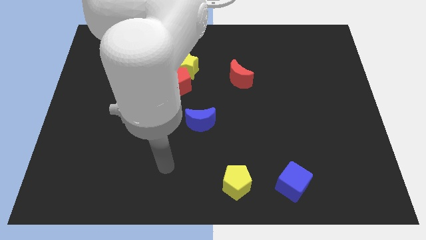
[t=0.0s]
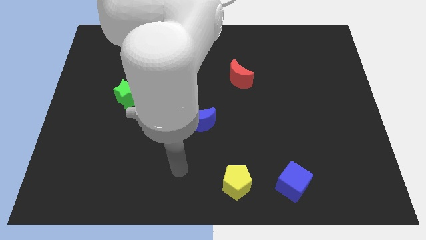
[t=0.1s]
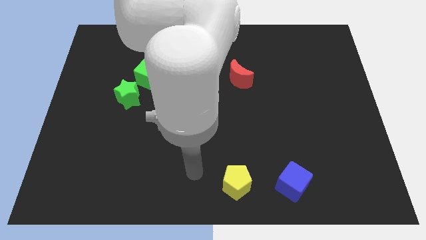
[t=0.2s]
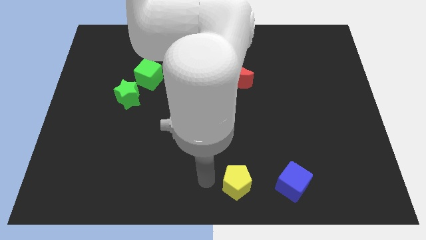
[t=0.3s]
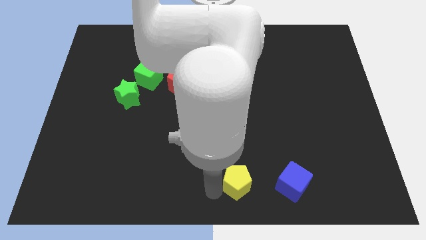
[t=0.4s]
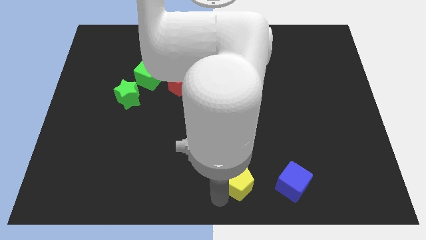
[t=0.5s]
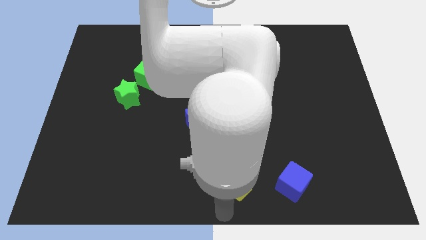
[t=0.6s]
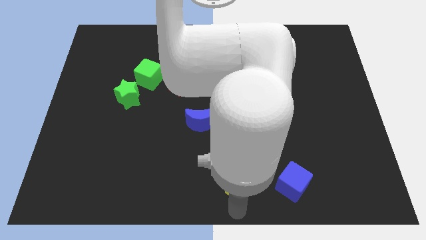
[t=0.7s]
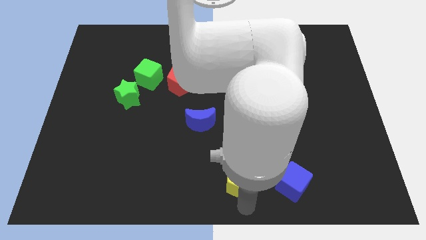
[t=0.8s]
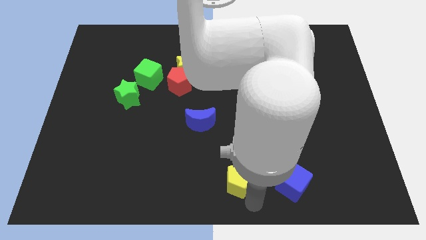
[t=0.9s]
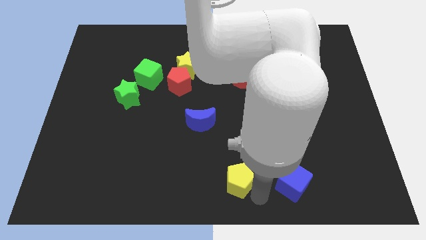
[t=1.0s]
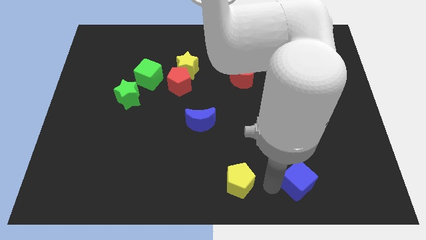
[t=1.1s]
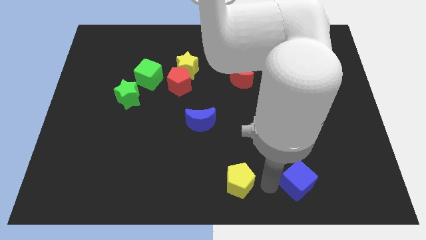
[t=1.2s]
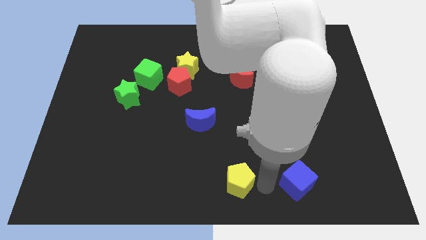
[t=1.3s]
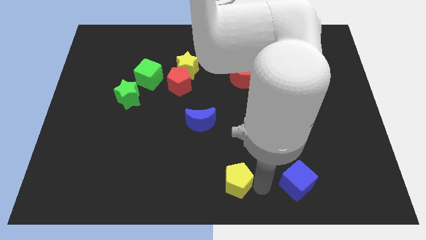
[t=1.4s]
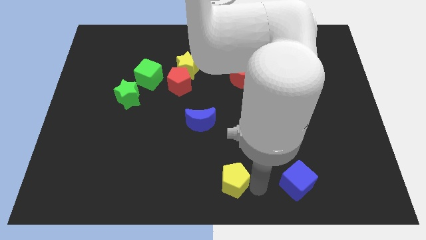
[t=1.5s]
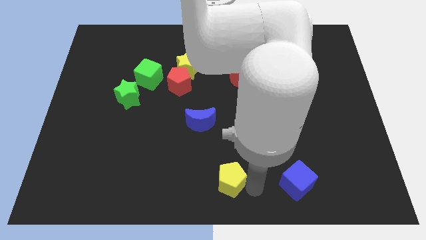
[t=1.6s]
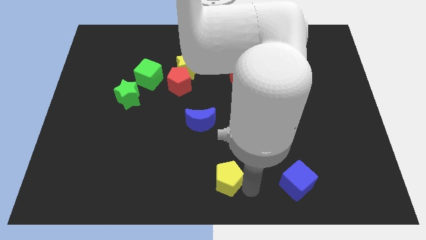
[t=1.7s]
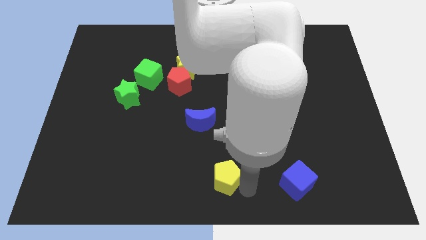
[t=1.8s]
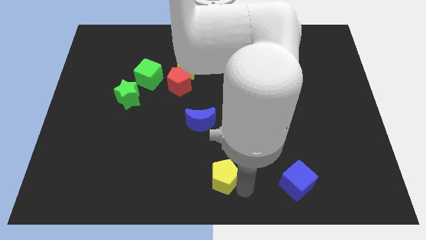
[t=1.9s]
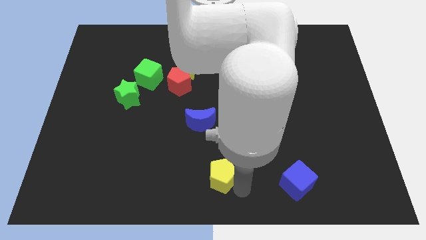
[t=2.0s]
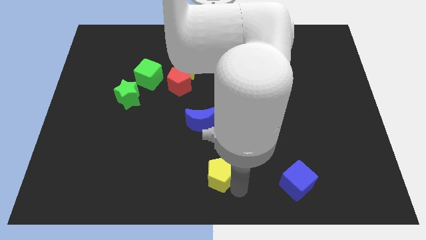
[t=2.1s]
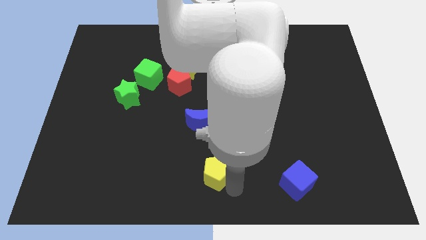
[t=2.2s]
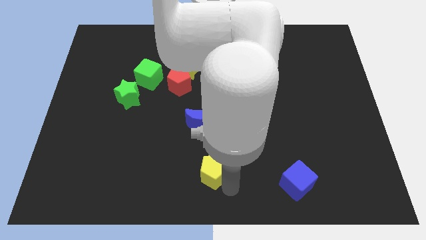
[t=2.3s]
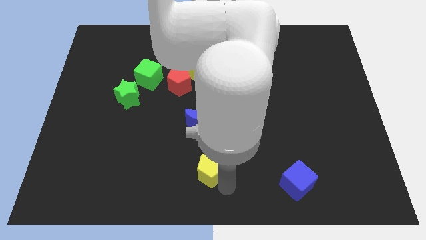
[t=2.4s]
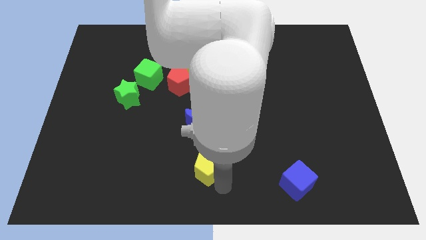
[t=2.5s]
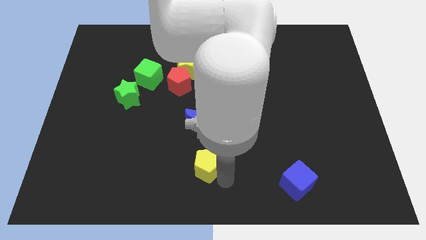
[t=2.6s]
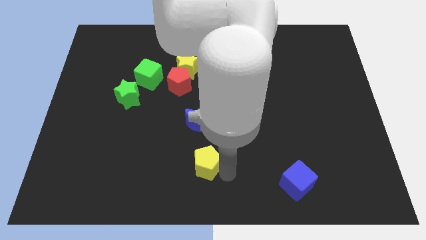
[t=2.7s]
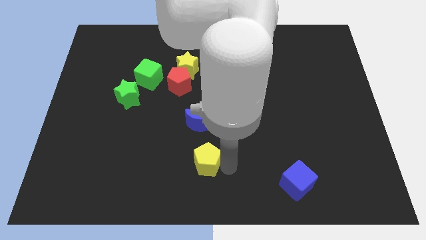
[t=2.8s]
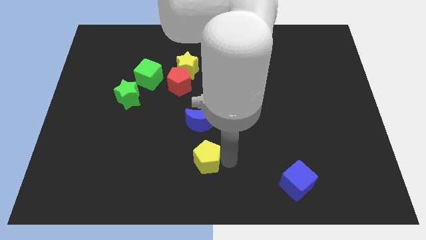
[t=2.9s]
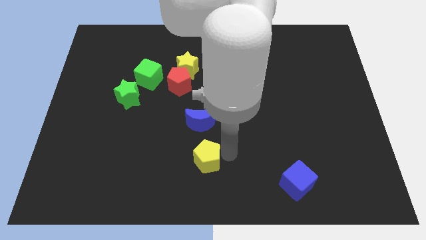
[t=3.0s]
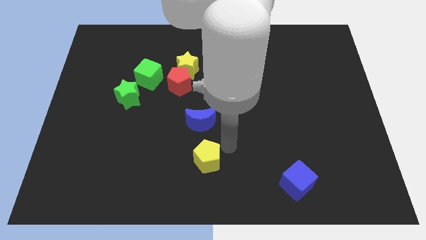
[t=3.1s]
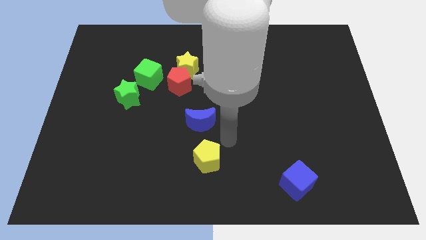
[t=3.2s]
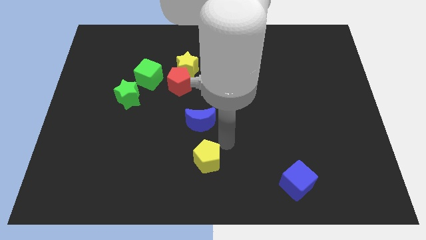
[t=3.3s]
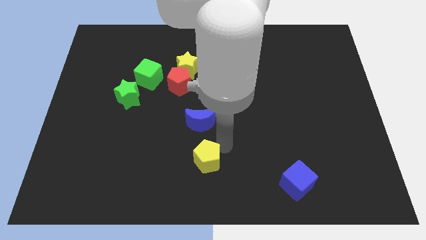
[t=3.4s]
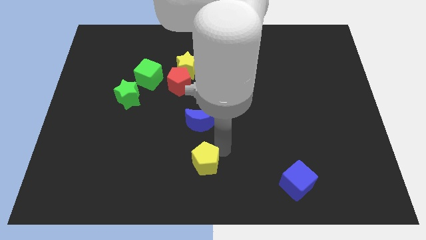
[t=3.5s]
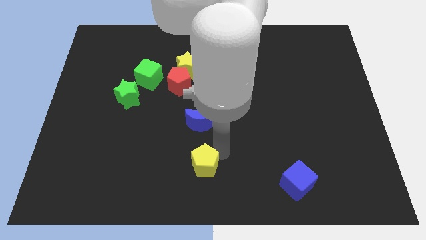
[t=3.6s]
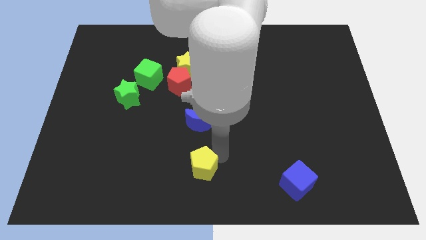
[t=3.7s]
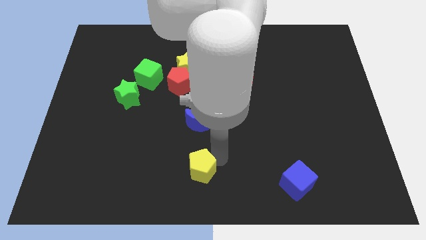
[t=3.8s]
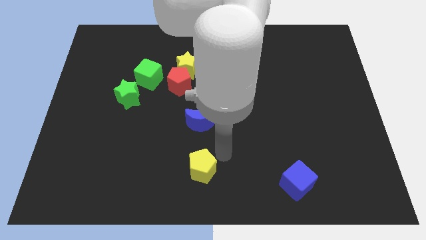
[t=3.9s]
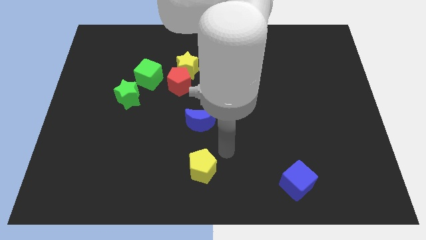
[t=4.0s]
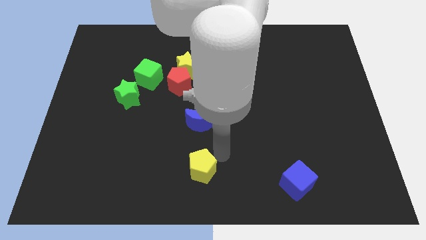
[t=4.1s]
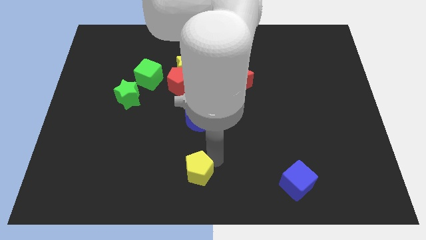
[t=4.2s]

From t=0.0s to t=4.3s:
push the yellow pentagon a little bit left

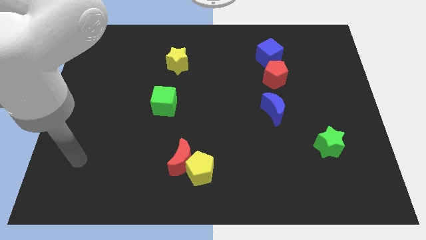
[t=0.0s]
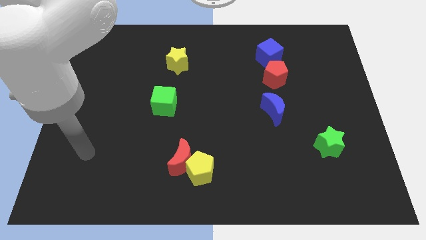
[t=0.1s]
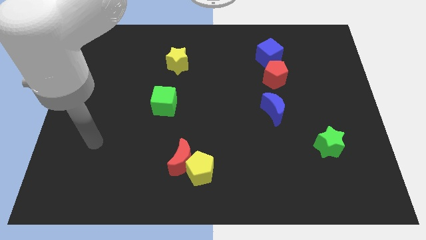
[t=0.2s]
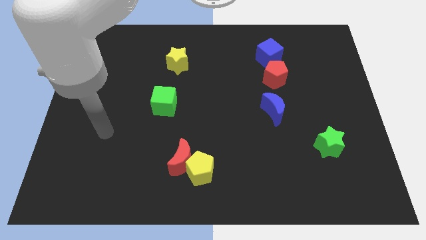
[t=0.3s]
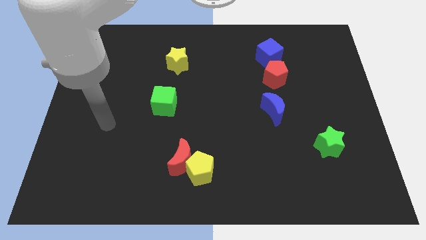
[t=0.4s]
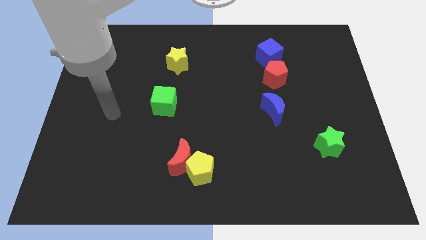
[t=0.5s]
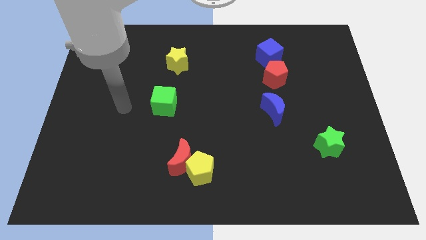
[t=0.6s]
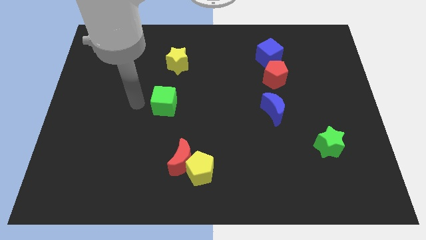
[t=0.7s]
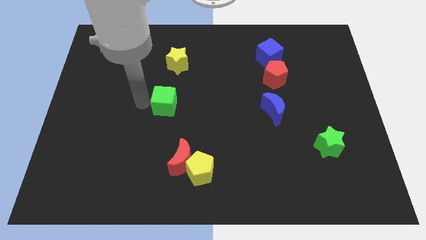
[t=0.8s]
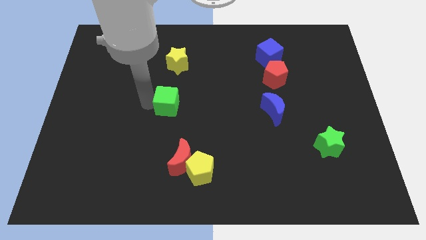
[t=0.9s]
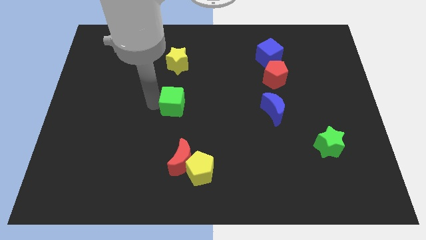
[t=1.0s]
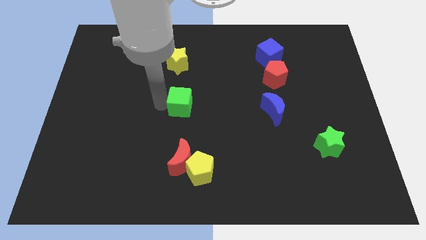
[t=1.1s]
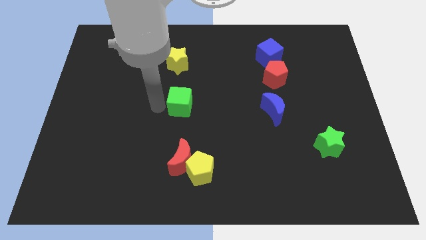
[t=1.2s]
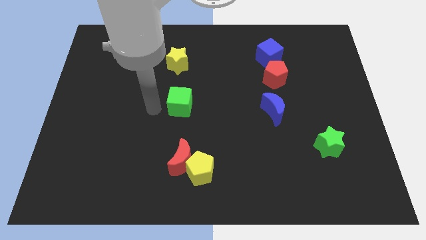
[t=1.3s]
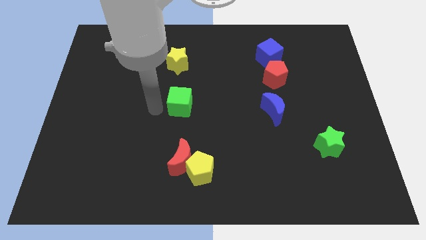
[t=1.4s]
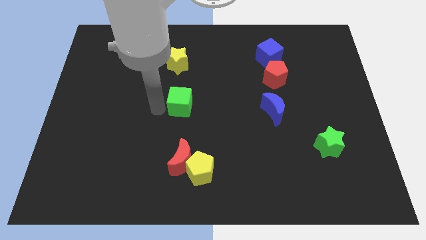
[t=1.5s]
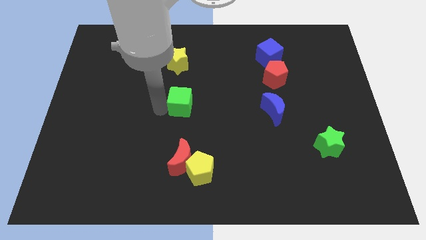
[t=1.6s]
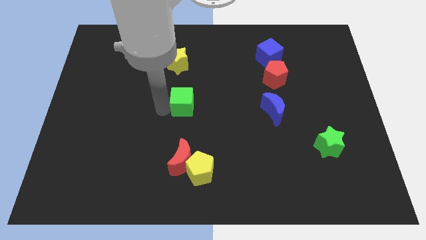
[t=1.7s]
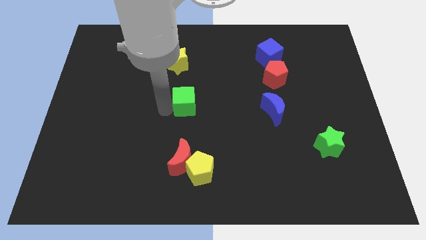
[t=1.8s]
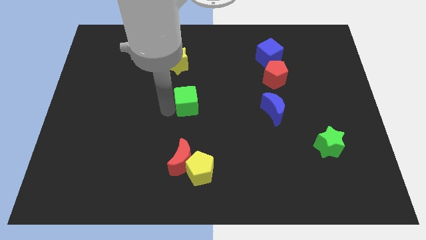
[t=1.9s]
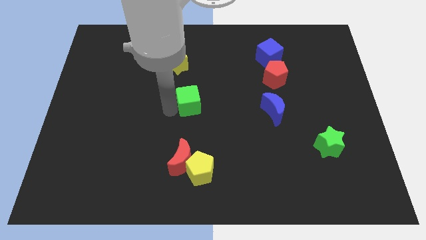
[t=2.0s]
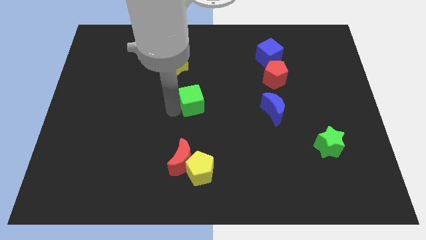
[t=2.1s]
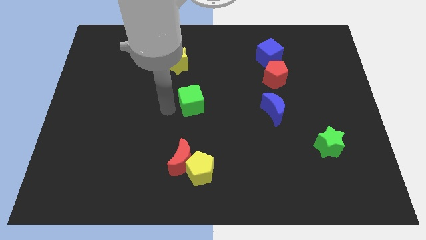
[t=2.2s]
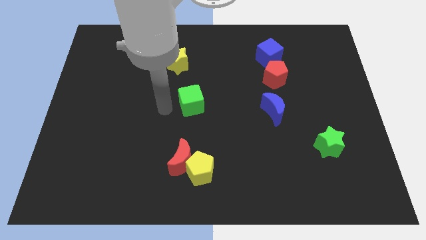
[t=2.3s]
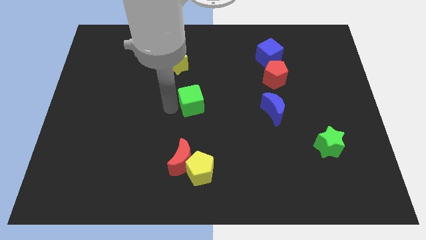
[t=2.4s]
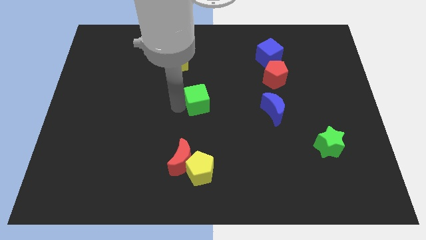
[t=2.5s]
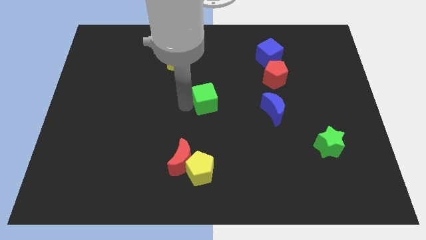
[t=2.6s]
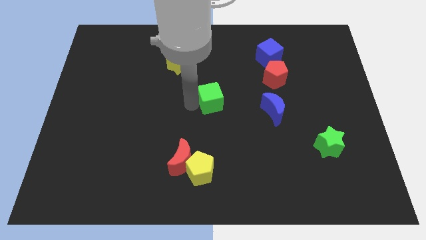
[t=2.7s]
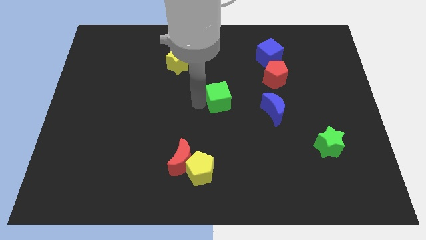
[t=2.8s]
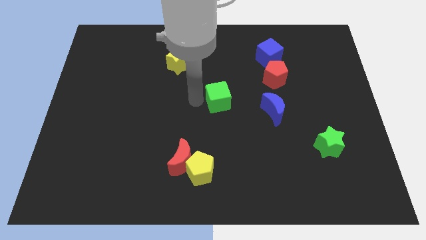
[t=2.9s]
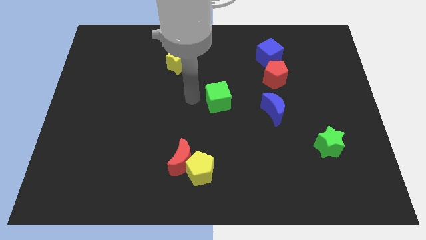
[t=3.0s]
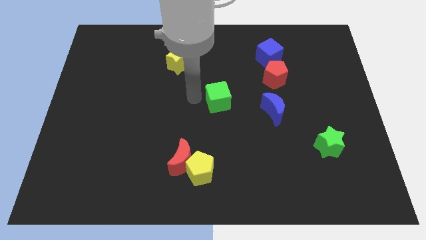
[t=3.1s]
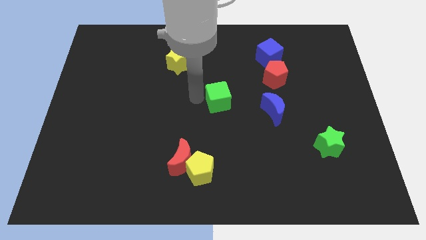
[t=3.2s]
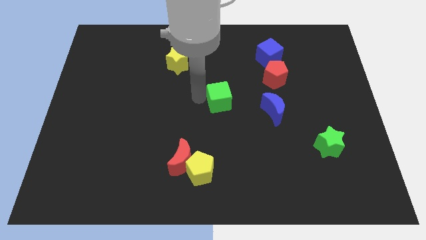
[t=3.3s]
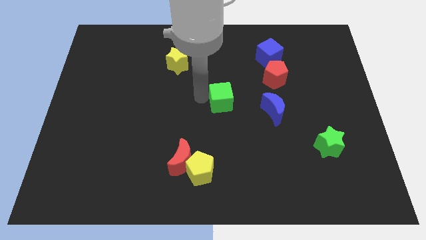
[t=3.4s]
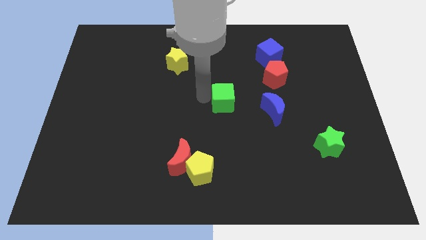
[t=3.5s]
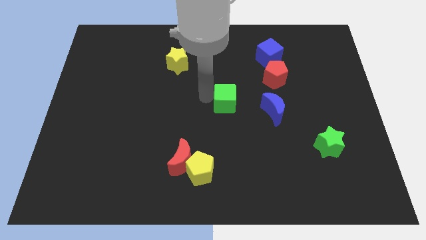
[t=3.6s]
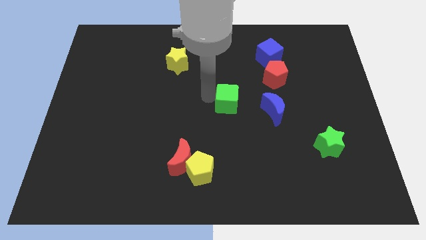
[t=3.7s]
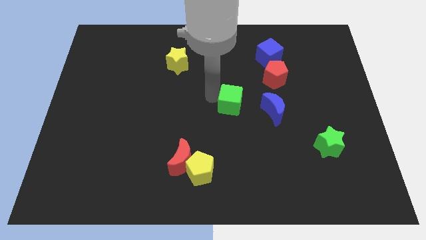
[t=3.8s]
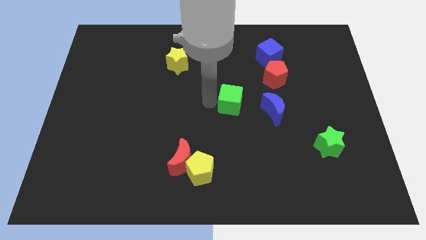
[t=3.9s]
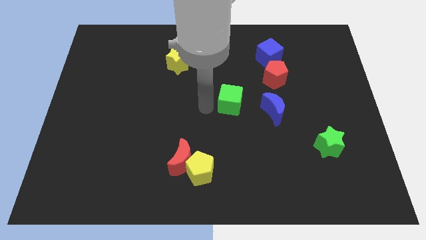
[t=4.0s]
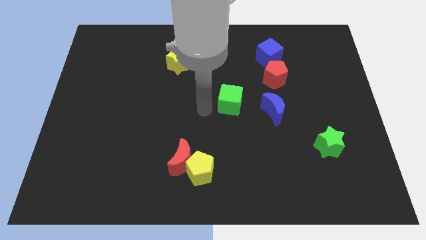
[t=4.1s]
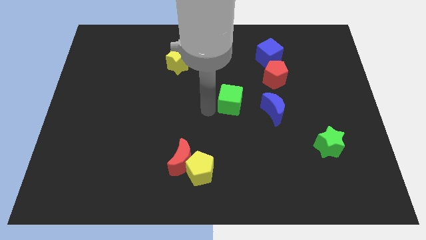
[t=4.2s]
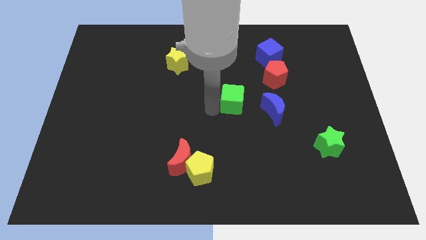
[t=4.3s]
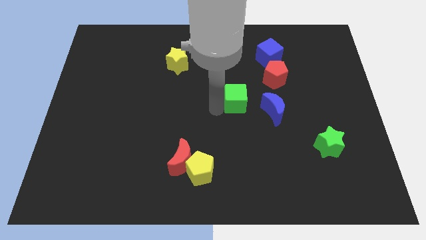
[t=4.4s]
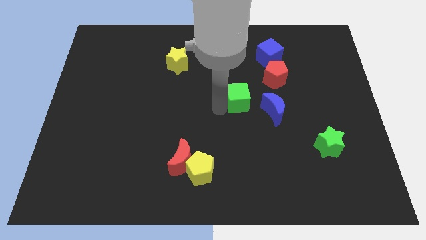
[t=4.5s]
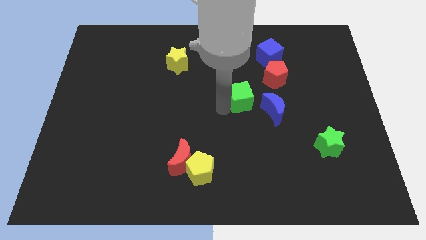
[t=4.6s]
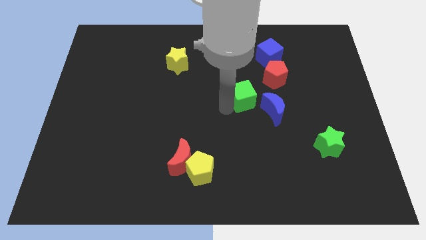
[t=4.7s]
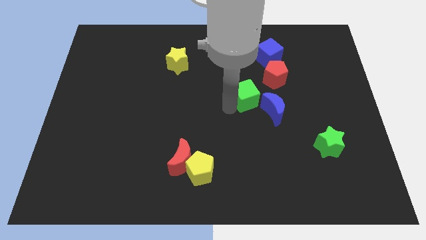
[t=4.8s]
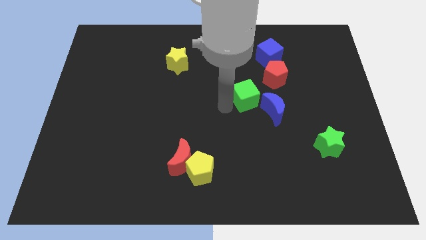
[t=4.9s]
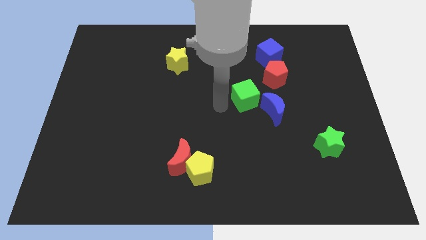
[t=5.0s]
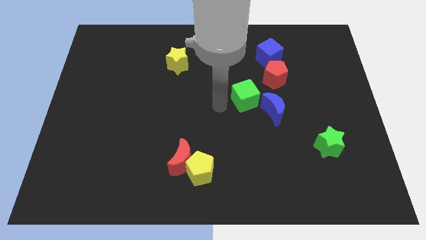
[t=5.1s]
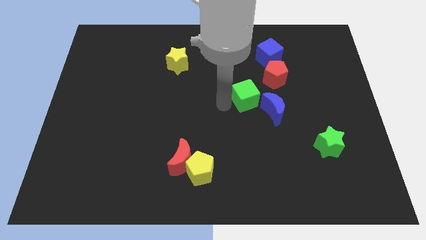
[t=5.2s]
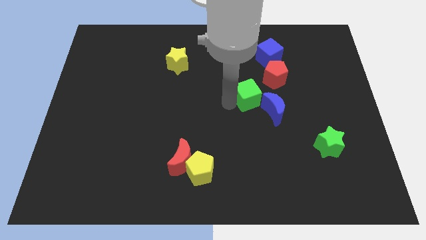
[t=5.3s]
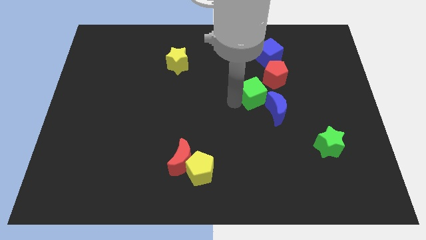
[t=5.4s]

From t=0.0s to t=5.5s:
move the green cube right
